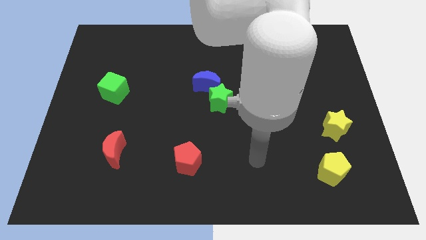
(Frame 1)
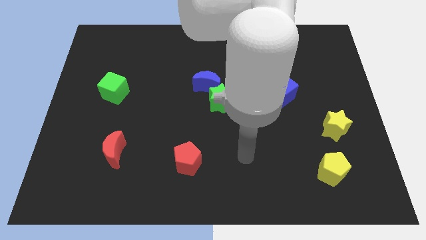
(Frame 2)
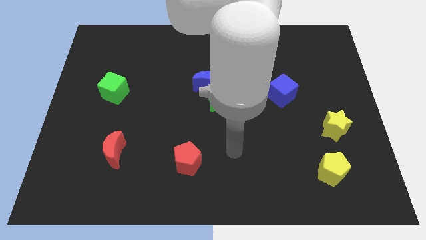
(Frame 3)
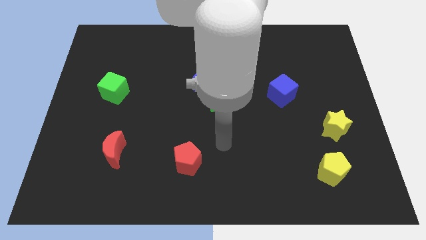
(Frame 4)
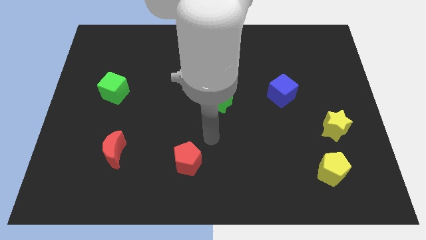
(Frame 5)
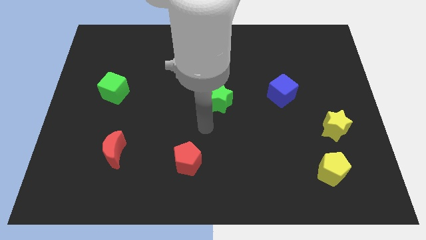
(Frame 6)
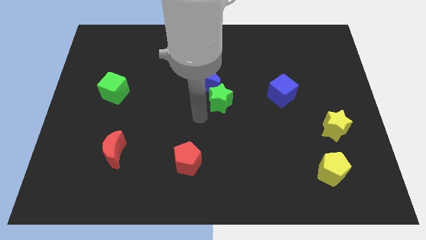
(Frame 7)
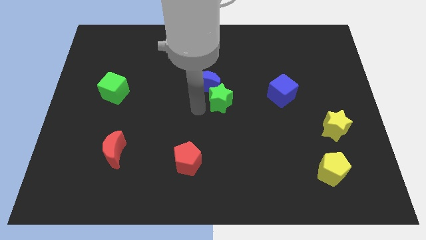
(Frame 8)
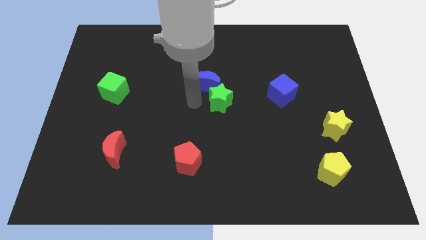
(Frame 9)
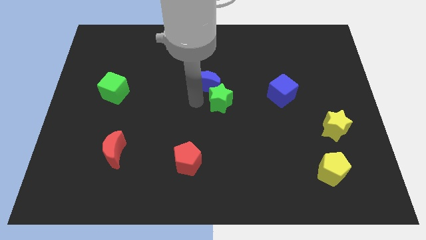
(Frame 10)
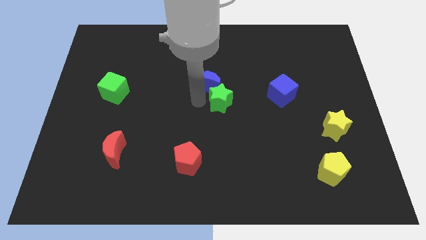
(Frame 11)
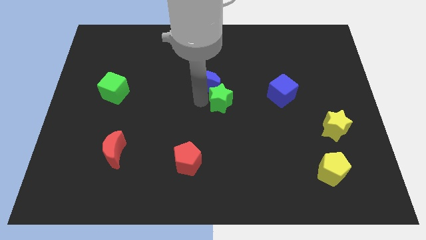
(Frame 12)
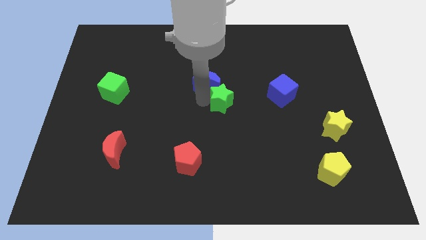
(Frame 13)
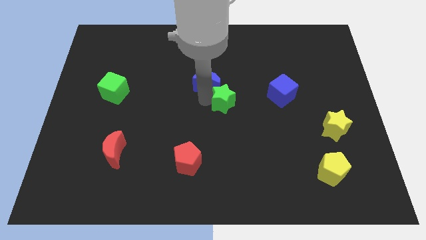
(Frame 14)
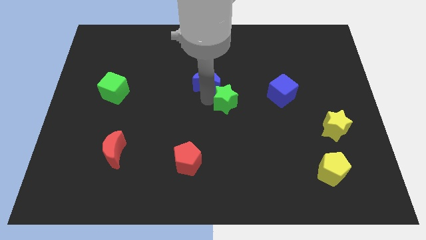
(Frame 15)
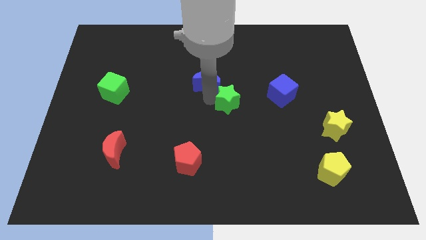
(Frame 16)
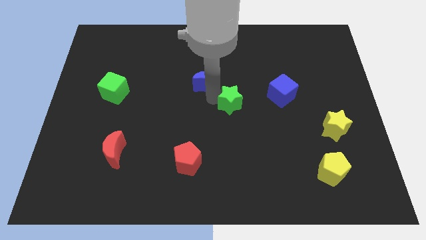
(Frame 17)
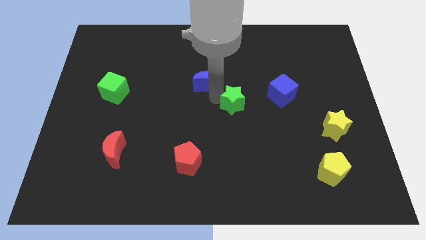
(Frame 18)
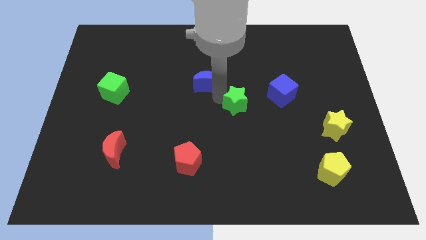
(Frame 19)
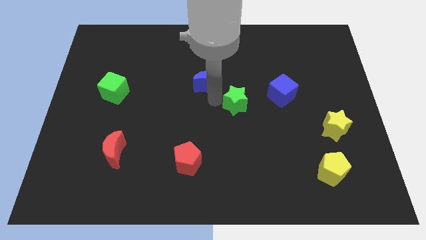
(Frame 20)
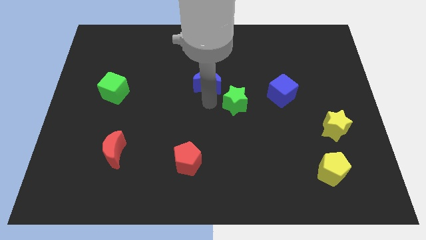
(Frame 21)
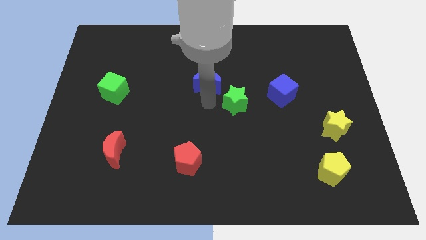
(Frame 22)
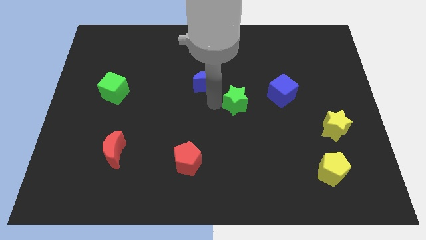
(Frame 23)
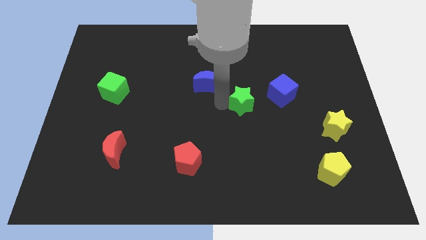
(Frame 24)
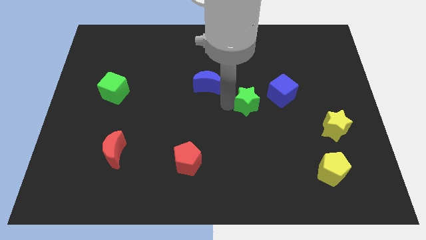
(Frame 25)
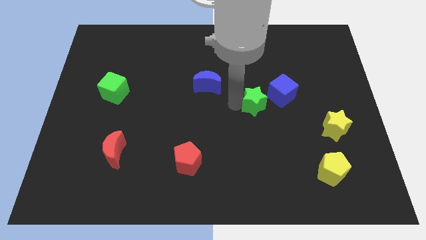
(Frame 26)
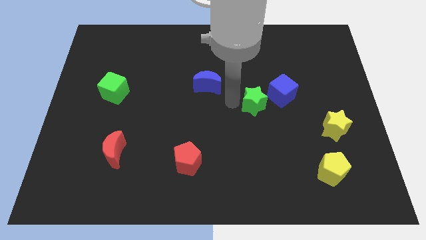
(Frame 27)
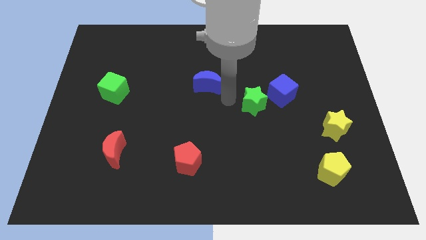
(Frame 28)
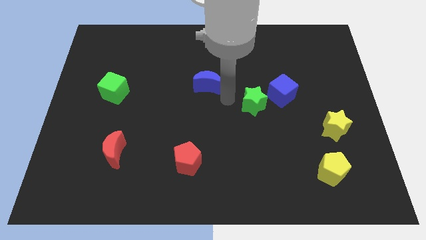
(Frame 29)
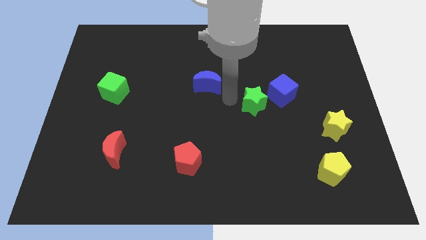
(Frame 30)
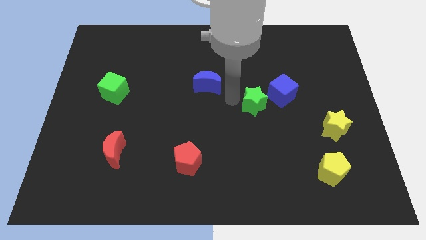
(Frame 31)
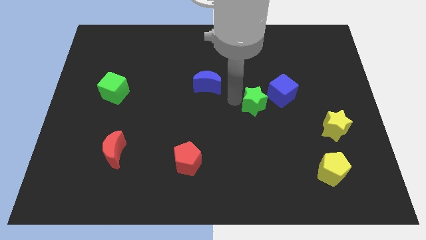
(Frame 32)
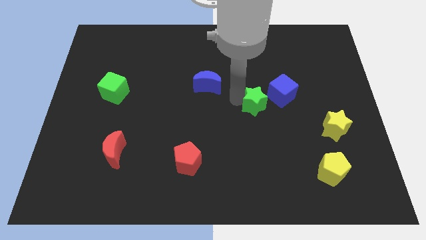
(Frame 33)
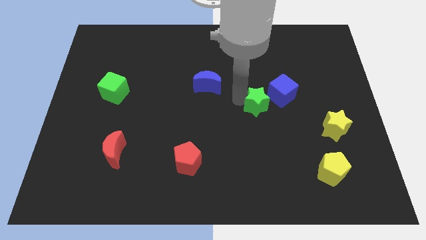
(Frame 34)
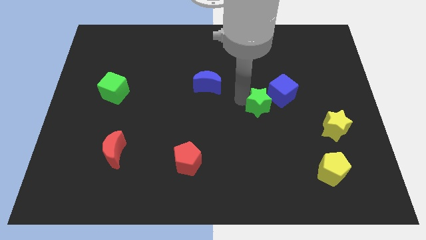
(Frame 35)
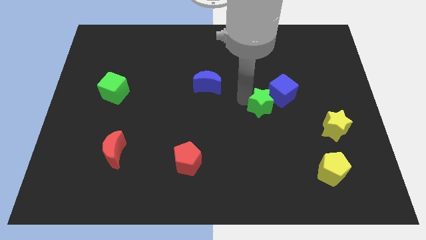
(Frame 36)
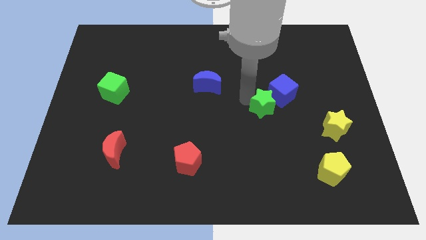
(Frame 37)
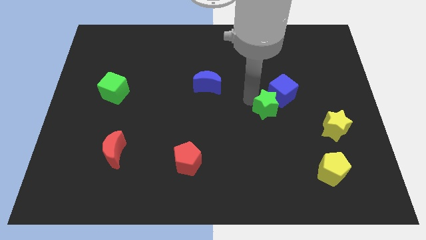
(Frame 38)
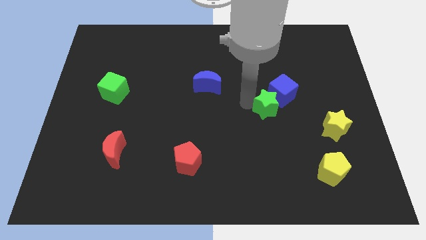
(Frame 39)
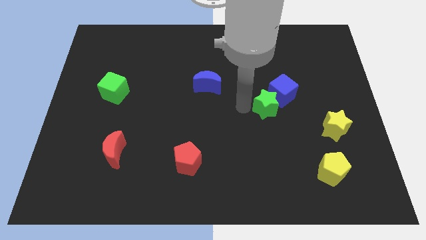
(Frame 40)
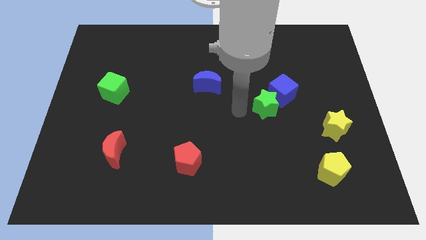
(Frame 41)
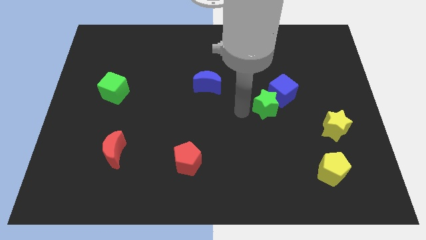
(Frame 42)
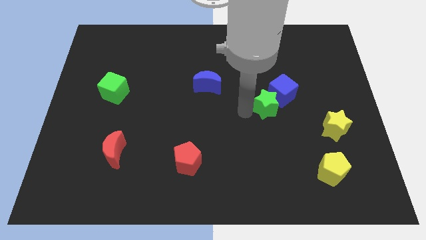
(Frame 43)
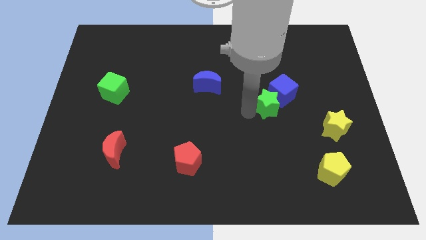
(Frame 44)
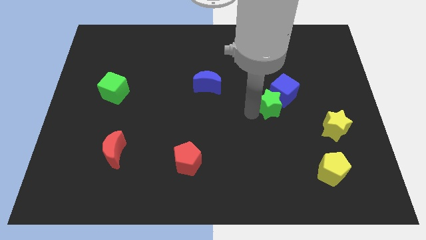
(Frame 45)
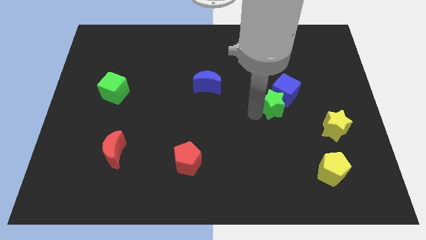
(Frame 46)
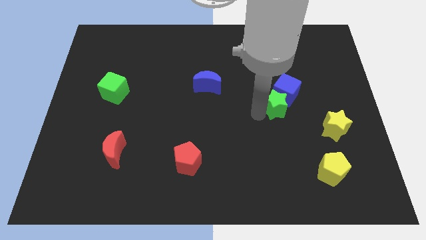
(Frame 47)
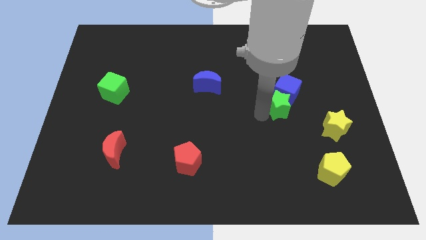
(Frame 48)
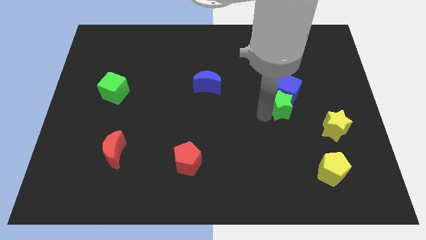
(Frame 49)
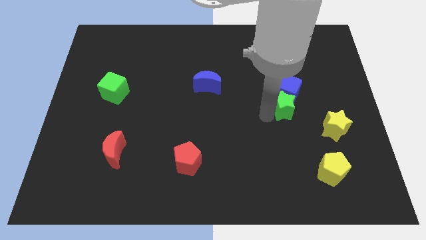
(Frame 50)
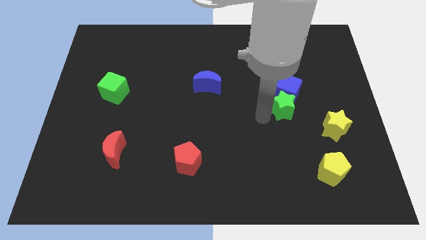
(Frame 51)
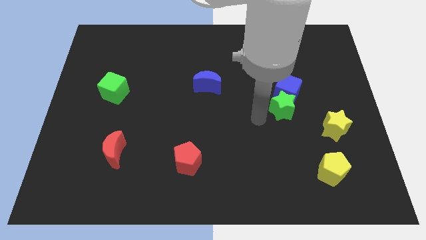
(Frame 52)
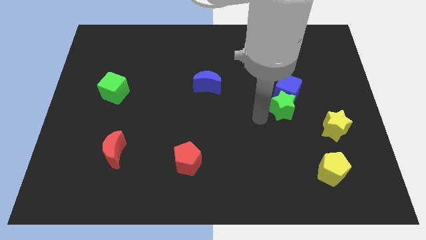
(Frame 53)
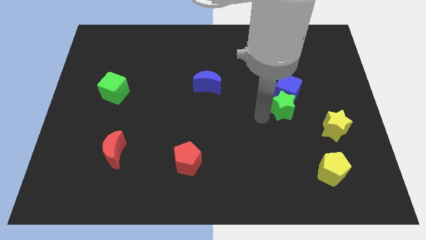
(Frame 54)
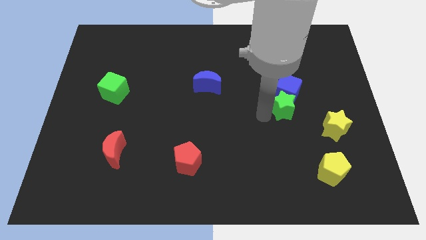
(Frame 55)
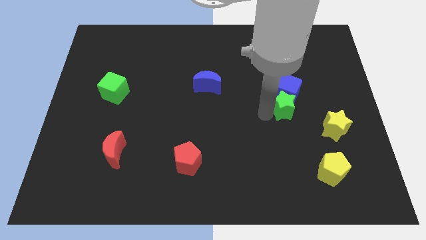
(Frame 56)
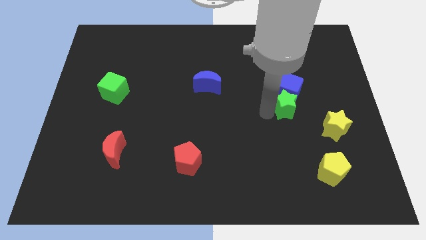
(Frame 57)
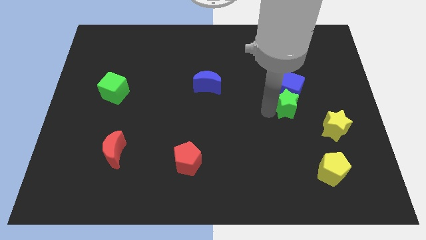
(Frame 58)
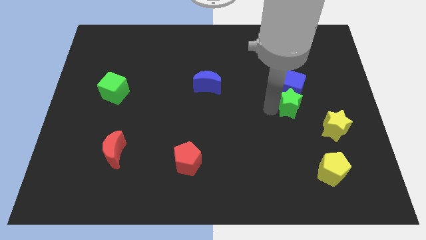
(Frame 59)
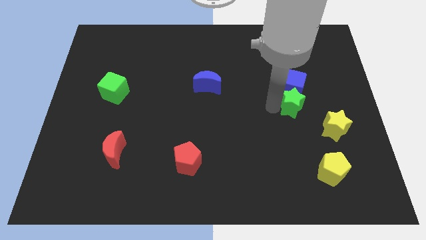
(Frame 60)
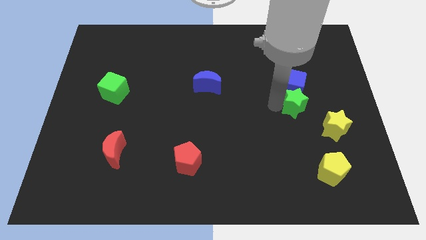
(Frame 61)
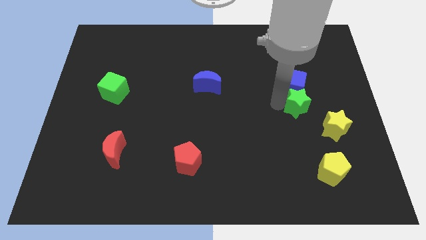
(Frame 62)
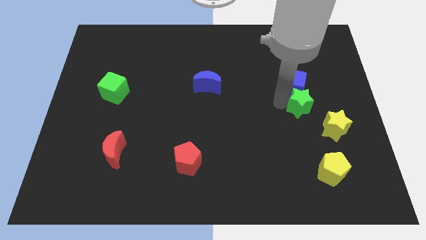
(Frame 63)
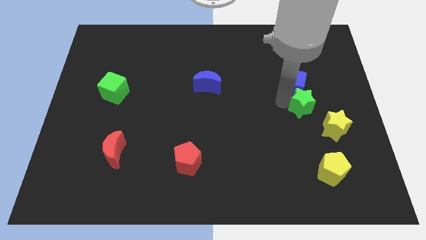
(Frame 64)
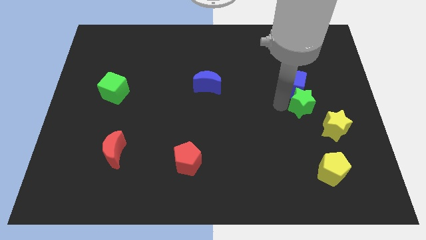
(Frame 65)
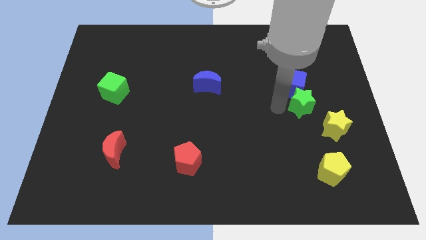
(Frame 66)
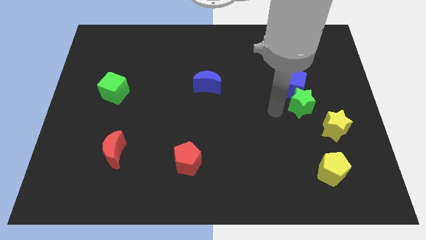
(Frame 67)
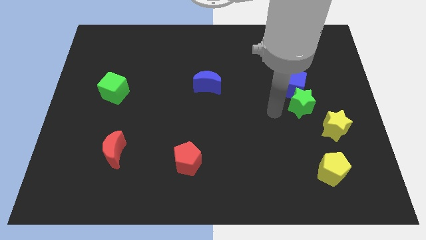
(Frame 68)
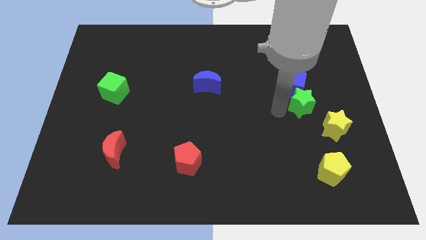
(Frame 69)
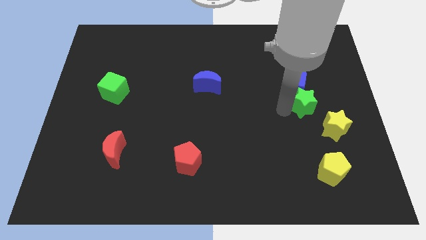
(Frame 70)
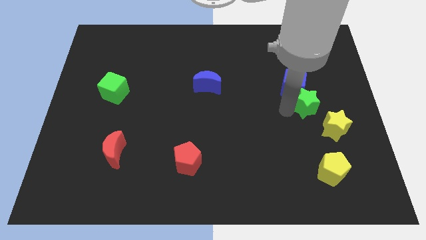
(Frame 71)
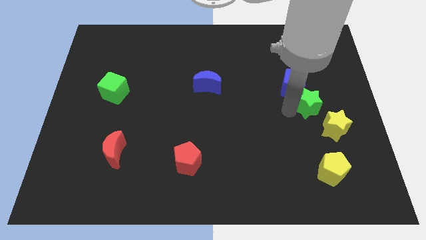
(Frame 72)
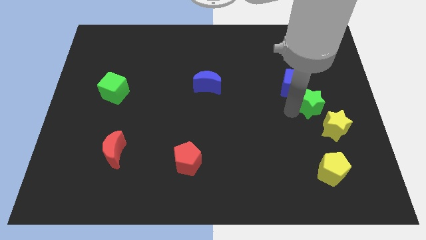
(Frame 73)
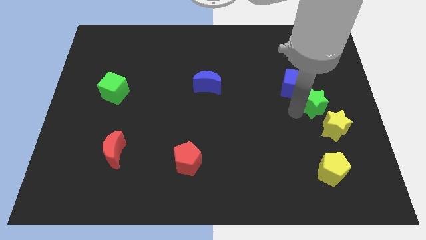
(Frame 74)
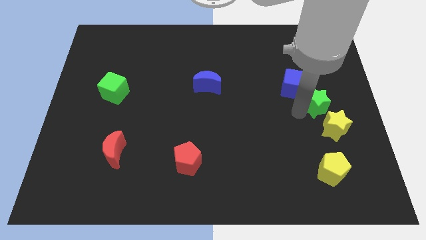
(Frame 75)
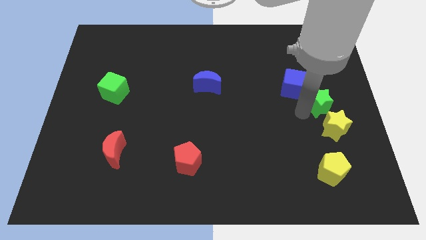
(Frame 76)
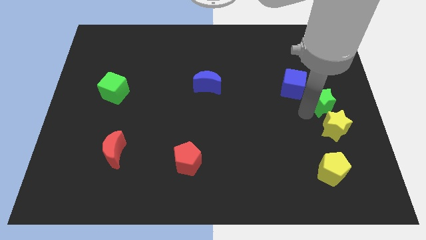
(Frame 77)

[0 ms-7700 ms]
put the green star to the center right
